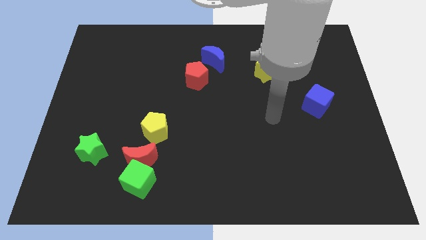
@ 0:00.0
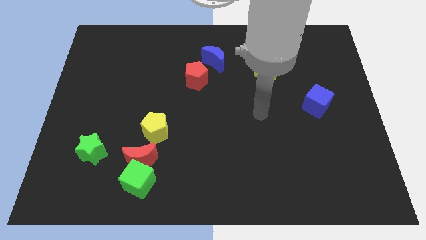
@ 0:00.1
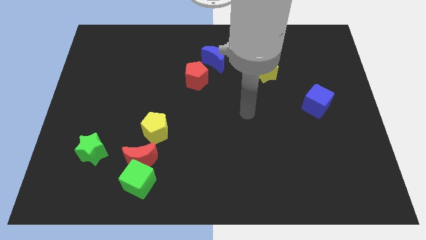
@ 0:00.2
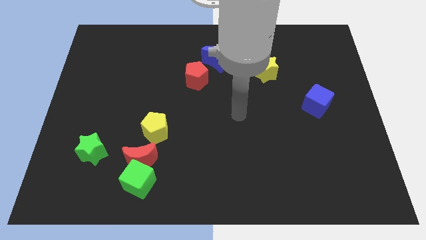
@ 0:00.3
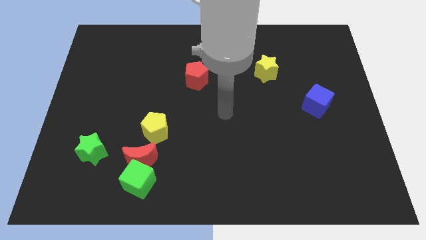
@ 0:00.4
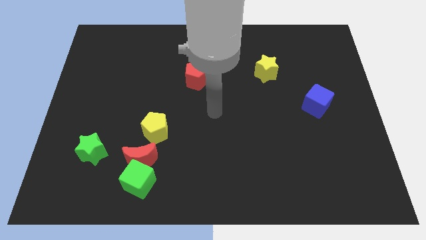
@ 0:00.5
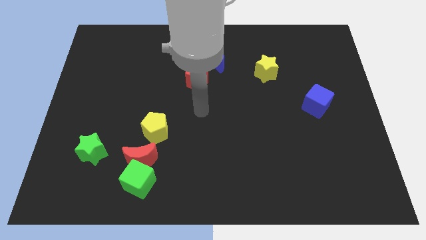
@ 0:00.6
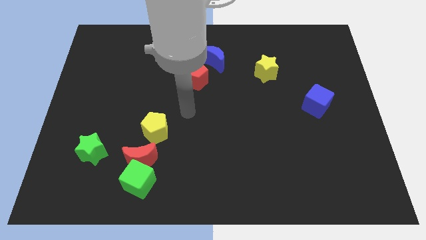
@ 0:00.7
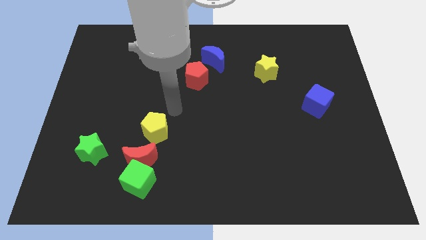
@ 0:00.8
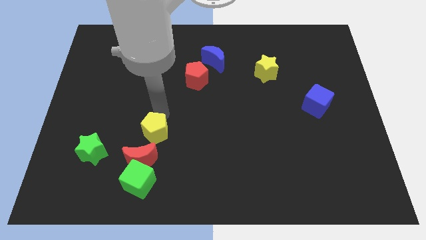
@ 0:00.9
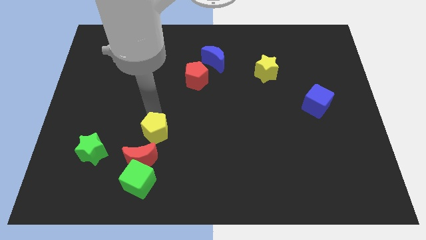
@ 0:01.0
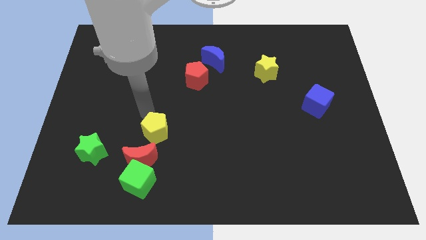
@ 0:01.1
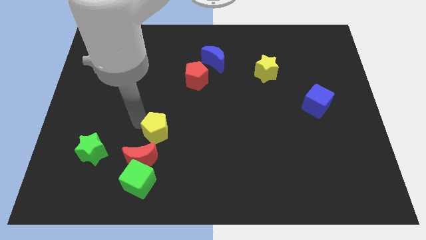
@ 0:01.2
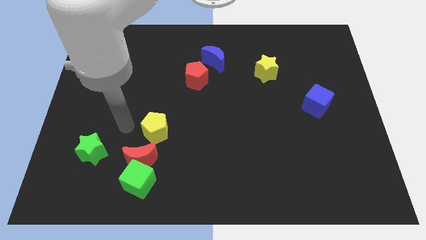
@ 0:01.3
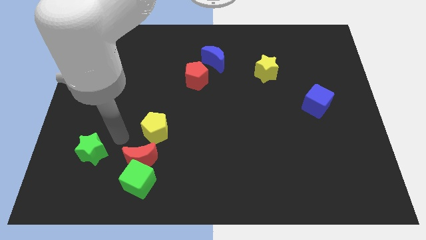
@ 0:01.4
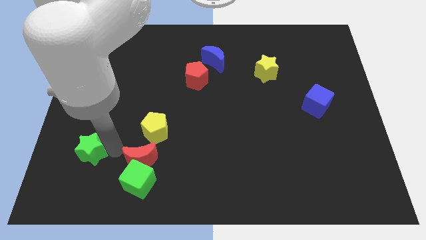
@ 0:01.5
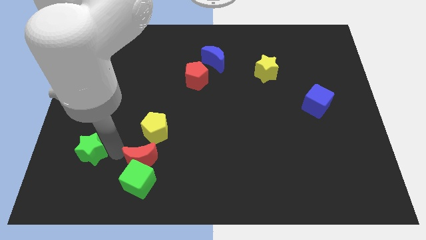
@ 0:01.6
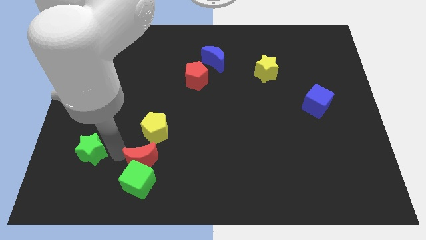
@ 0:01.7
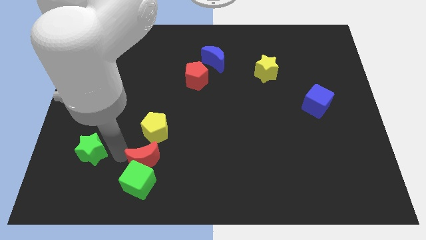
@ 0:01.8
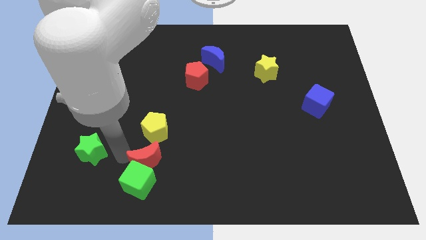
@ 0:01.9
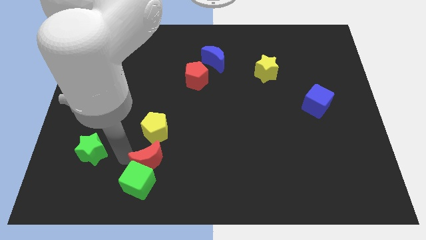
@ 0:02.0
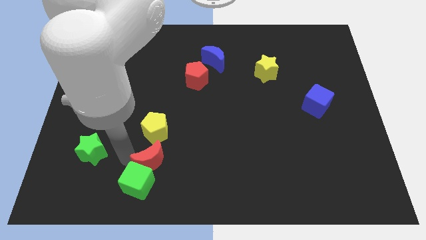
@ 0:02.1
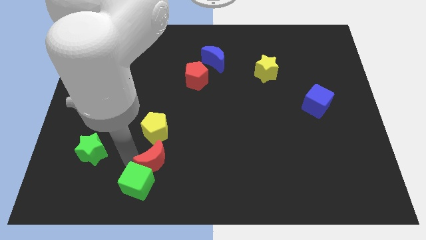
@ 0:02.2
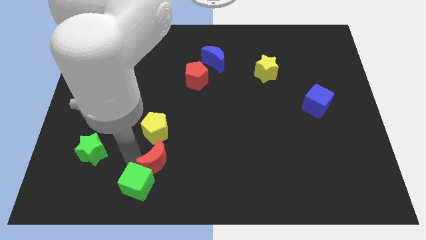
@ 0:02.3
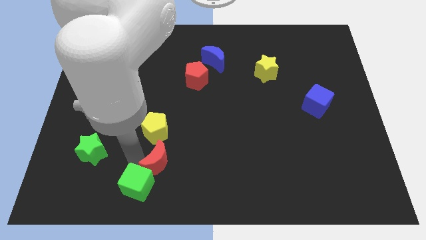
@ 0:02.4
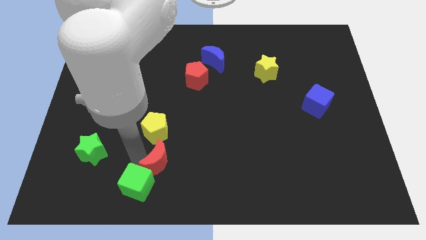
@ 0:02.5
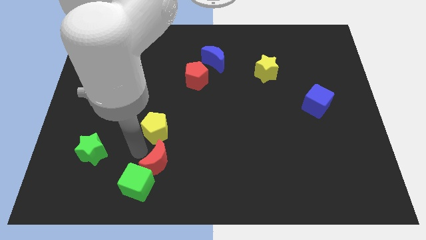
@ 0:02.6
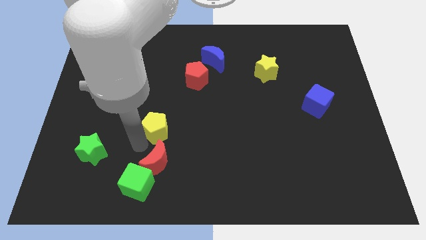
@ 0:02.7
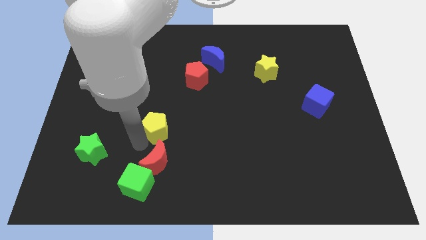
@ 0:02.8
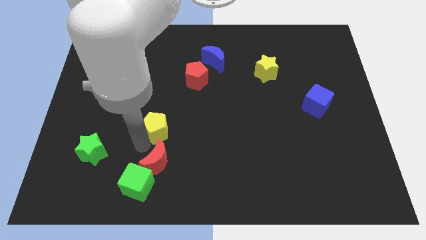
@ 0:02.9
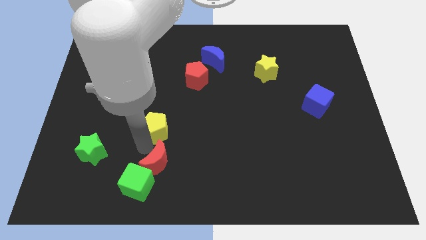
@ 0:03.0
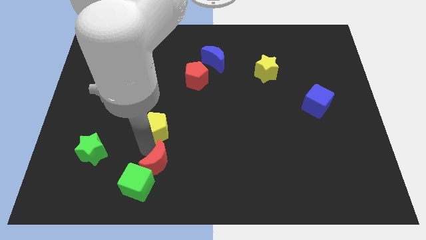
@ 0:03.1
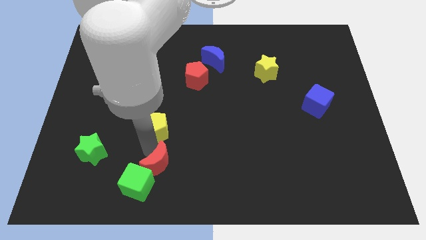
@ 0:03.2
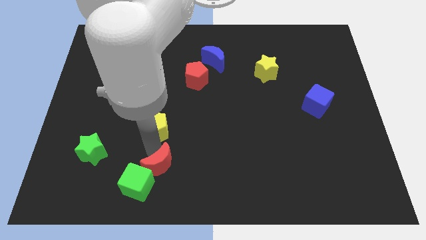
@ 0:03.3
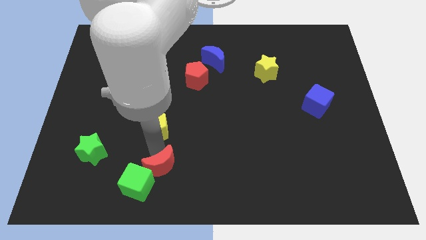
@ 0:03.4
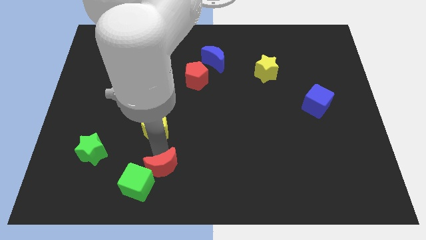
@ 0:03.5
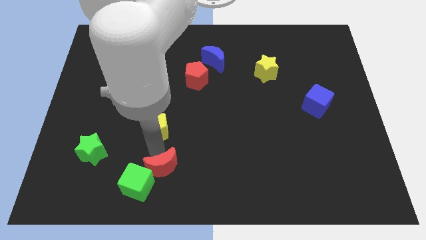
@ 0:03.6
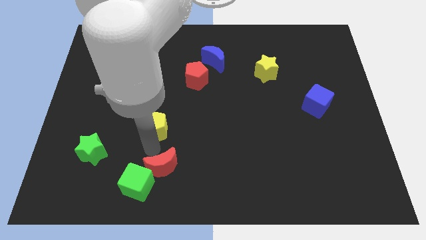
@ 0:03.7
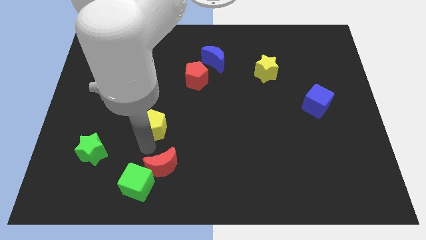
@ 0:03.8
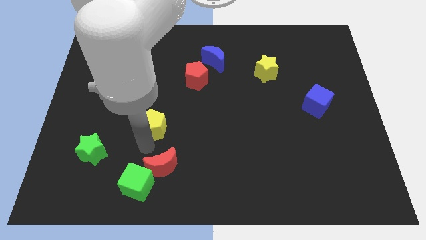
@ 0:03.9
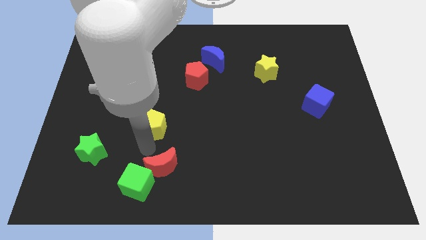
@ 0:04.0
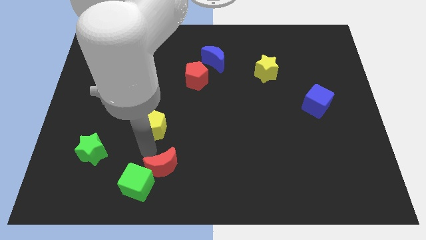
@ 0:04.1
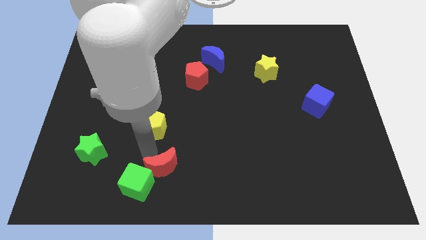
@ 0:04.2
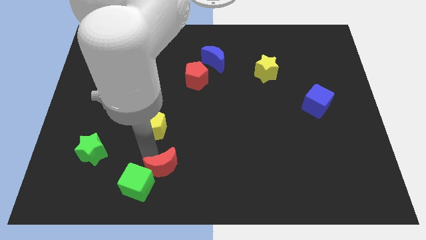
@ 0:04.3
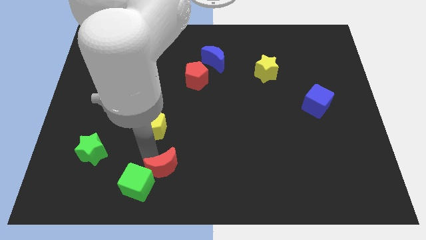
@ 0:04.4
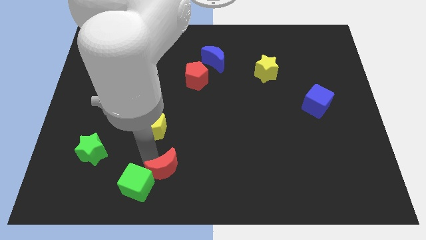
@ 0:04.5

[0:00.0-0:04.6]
push the red moon to the bottom

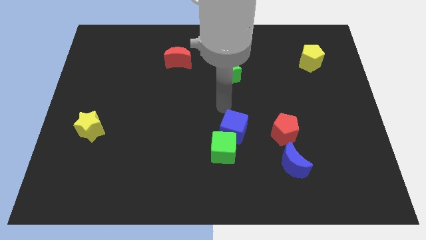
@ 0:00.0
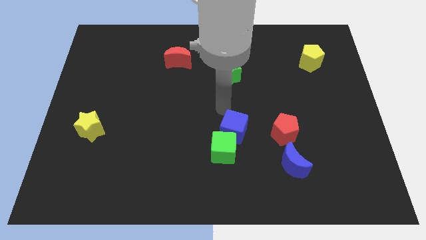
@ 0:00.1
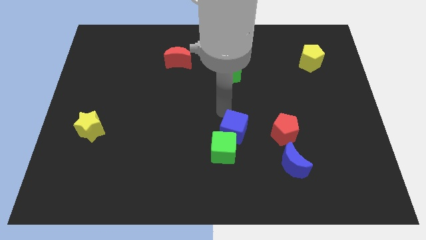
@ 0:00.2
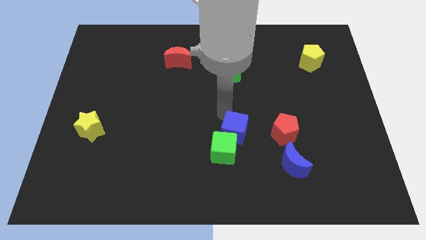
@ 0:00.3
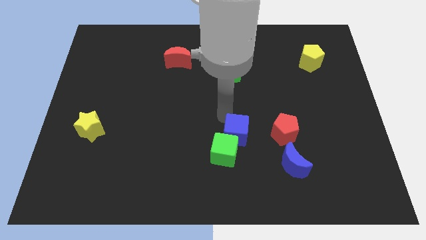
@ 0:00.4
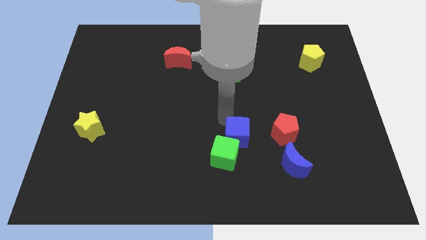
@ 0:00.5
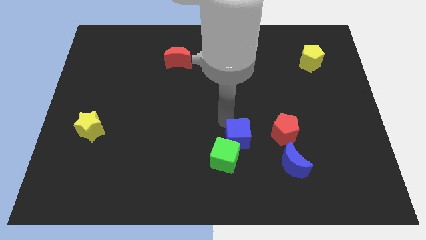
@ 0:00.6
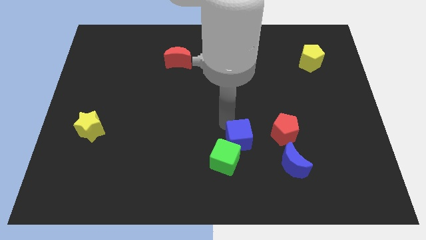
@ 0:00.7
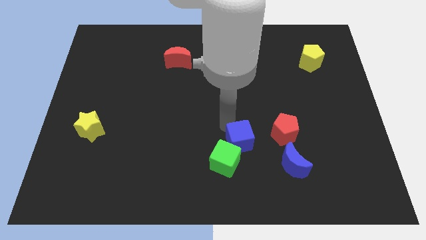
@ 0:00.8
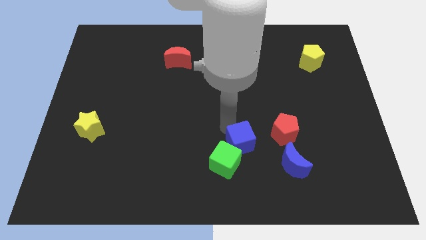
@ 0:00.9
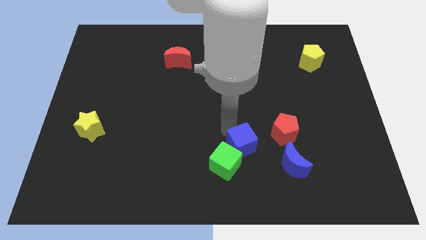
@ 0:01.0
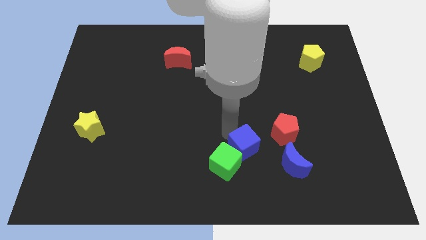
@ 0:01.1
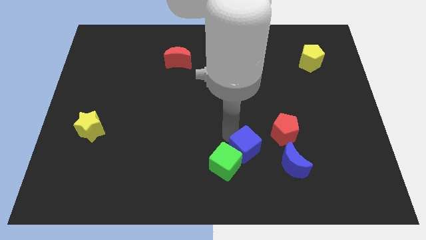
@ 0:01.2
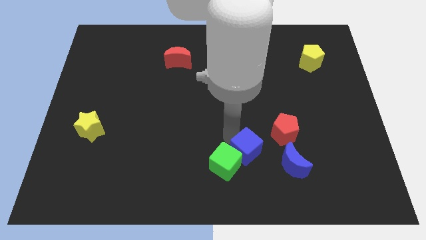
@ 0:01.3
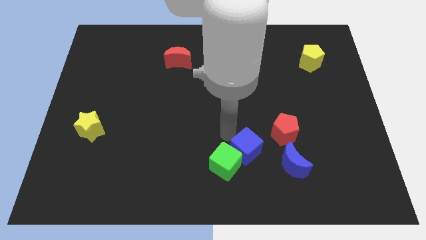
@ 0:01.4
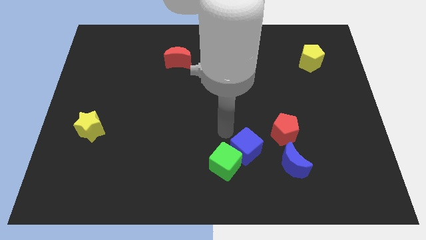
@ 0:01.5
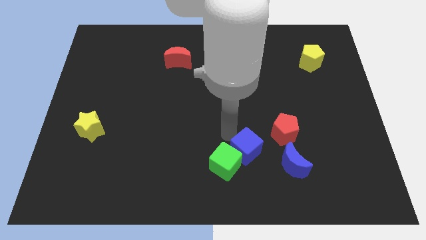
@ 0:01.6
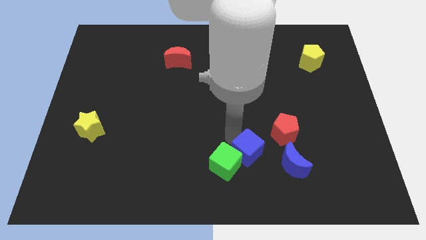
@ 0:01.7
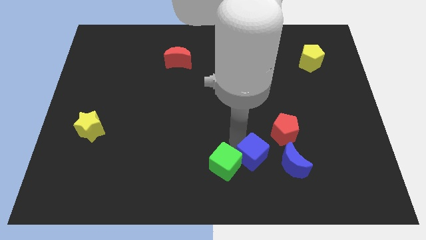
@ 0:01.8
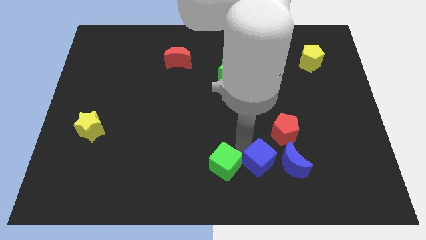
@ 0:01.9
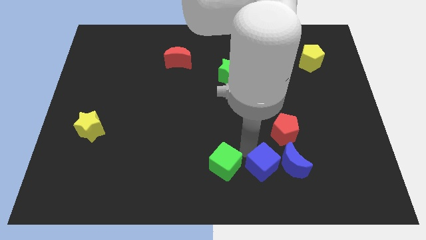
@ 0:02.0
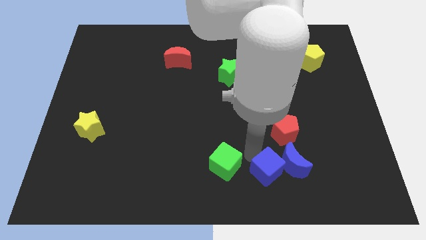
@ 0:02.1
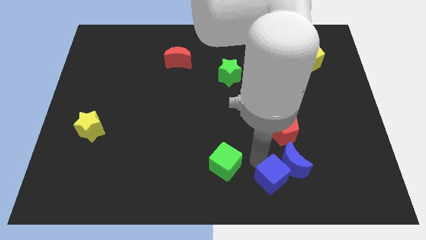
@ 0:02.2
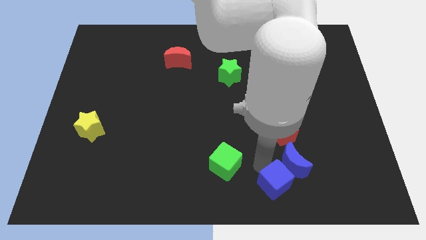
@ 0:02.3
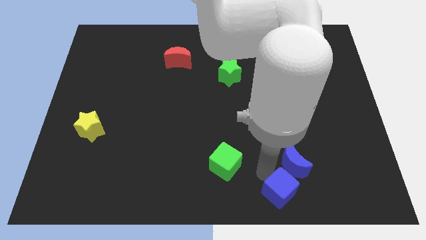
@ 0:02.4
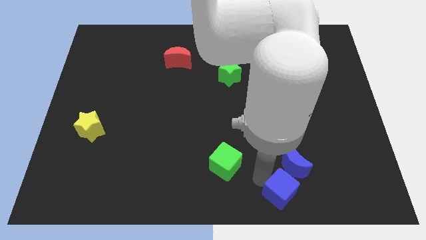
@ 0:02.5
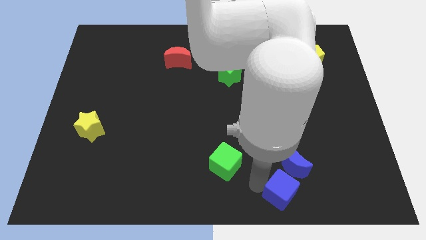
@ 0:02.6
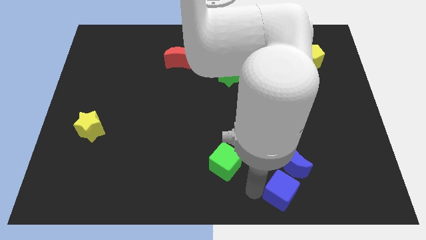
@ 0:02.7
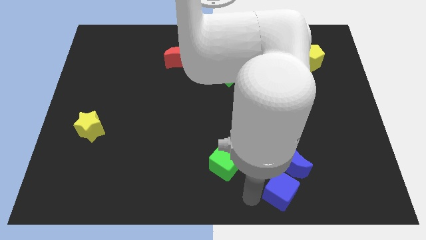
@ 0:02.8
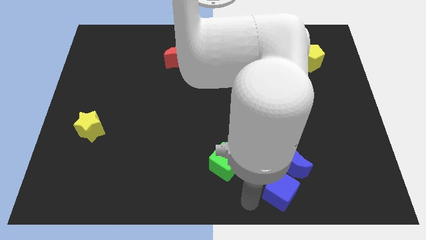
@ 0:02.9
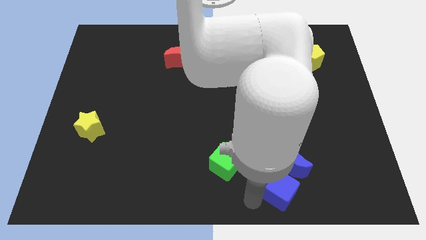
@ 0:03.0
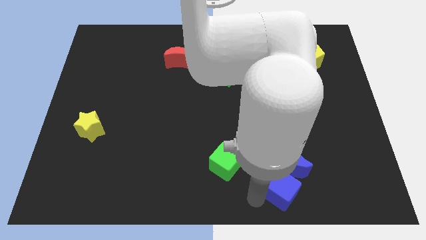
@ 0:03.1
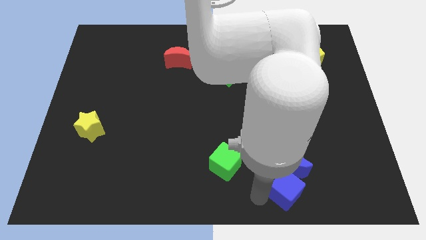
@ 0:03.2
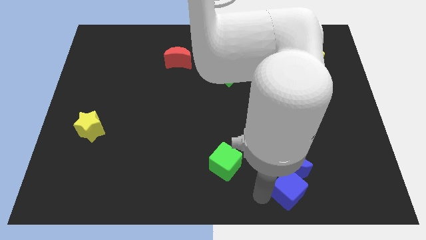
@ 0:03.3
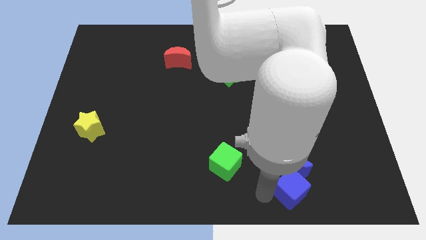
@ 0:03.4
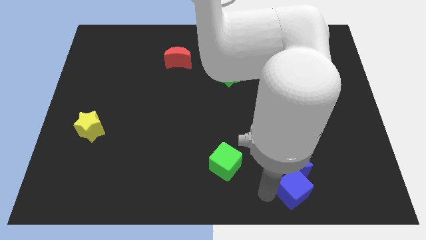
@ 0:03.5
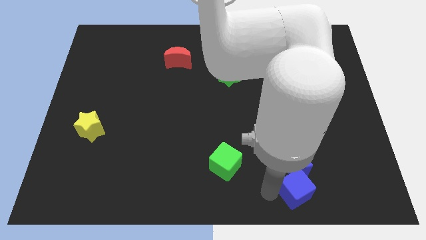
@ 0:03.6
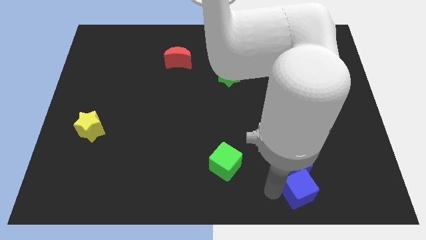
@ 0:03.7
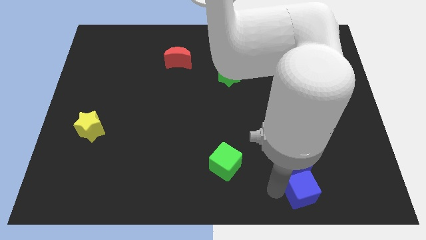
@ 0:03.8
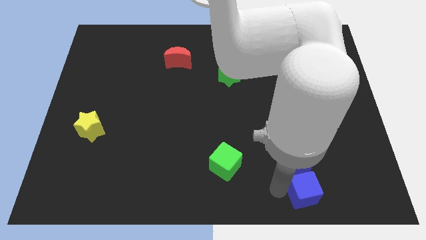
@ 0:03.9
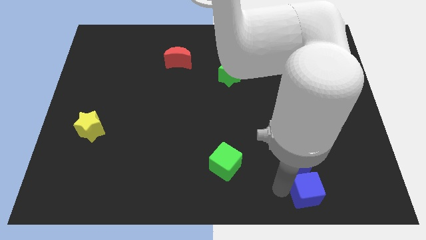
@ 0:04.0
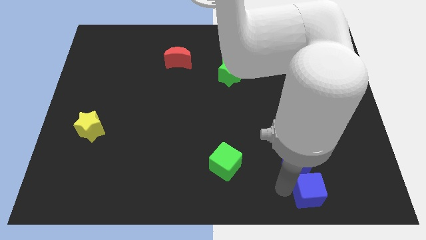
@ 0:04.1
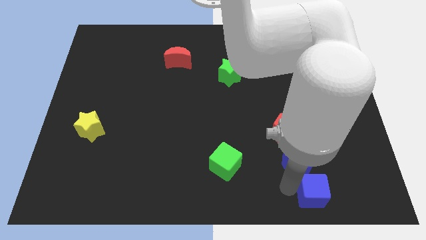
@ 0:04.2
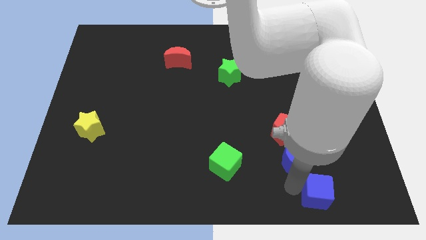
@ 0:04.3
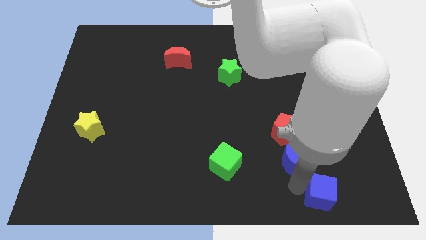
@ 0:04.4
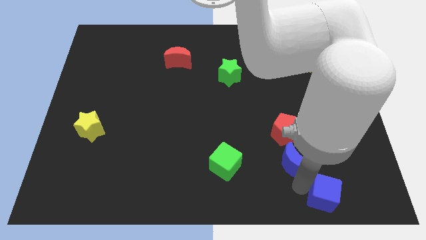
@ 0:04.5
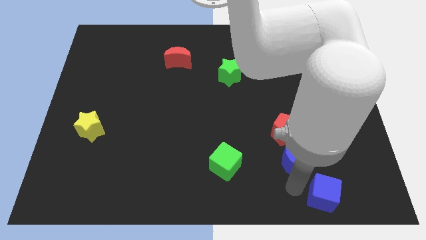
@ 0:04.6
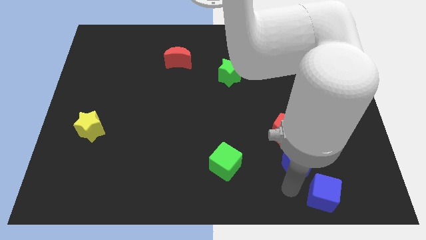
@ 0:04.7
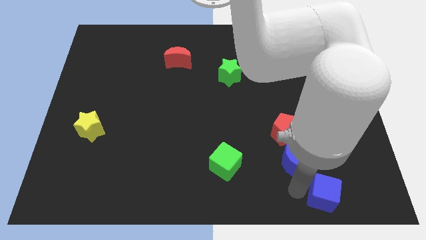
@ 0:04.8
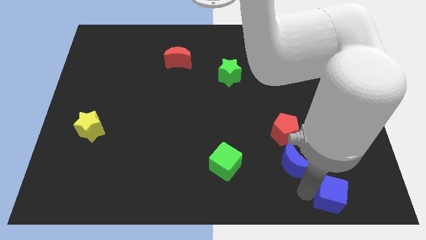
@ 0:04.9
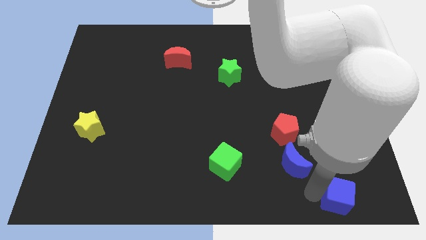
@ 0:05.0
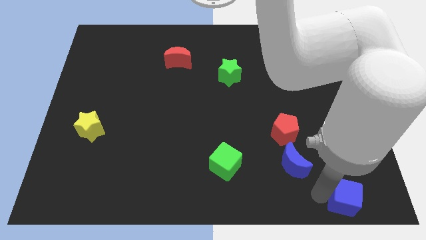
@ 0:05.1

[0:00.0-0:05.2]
push the blue cube to the lower right corner
